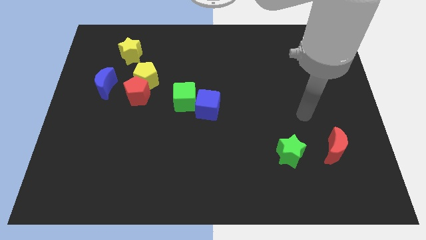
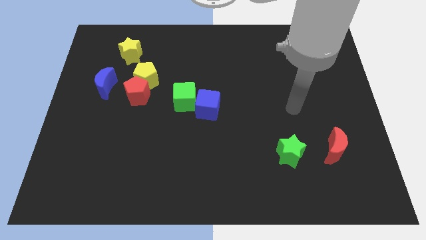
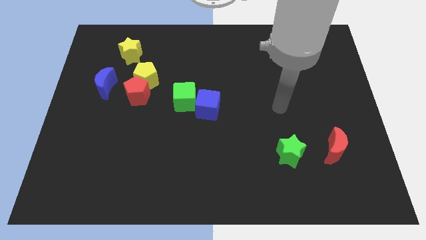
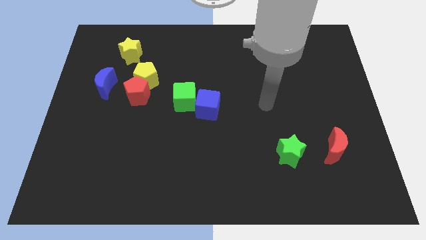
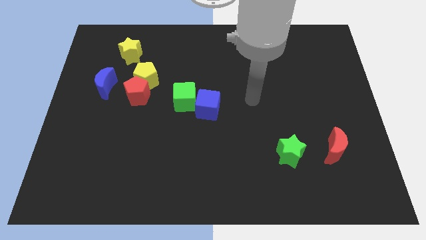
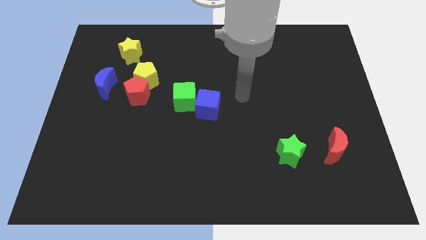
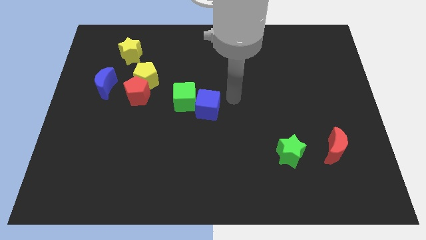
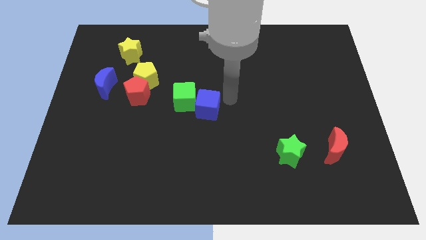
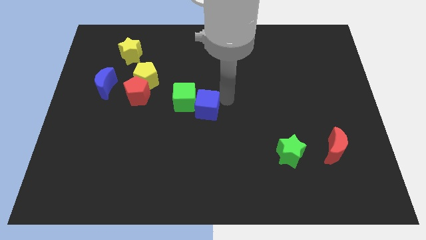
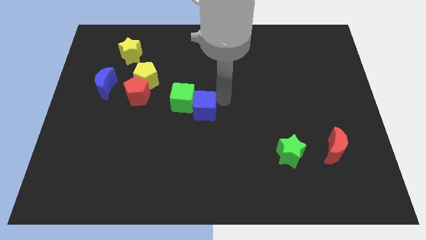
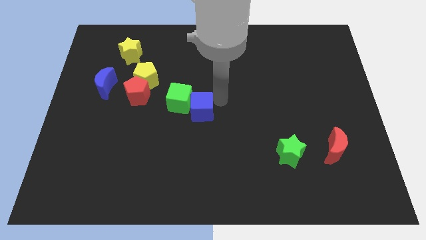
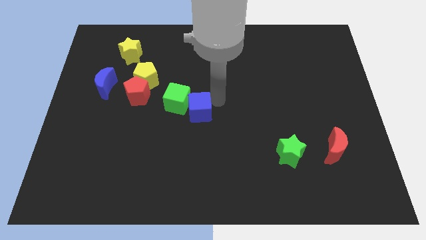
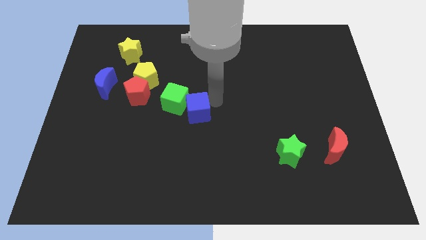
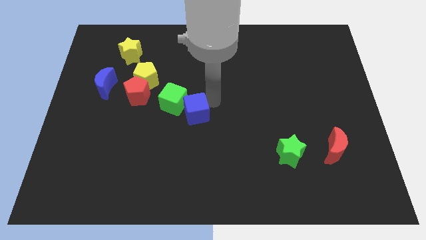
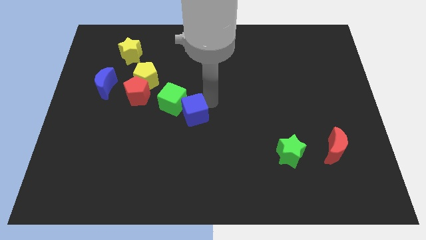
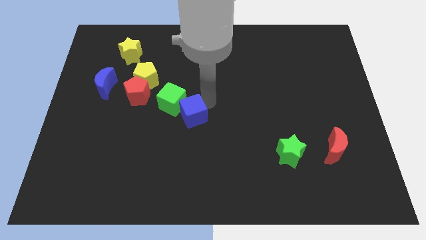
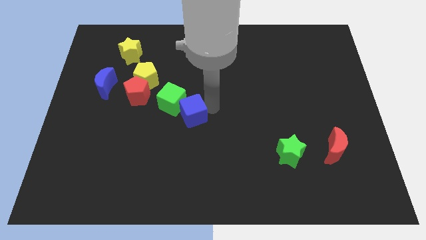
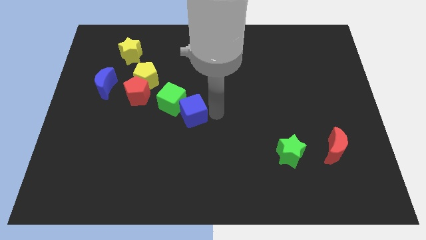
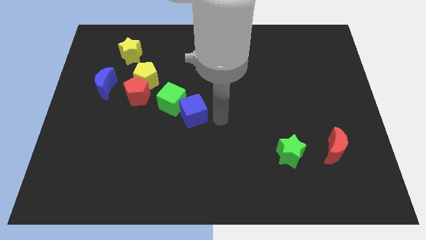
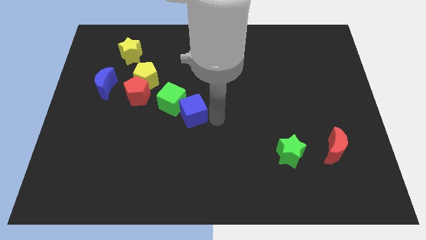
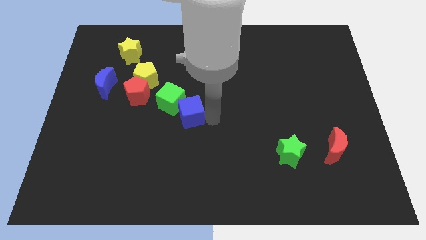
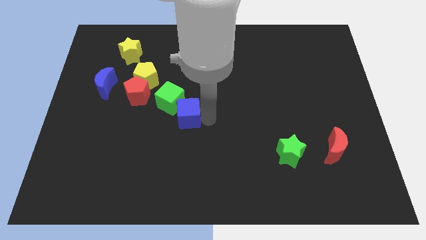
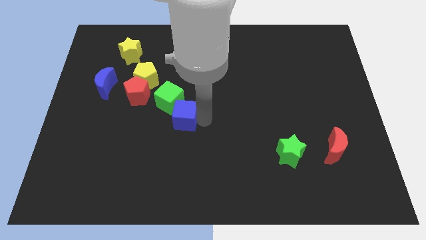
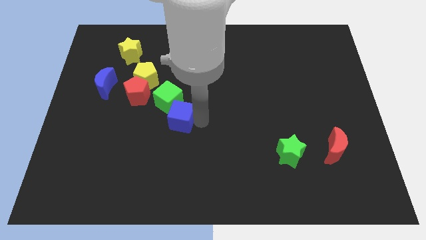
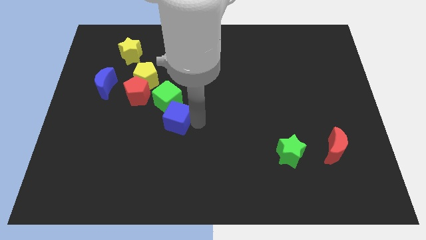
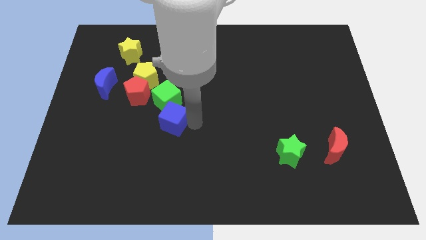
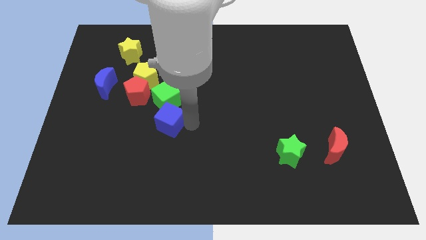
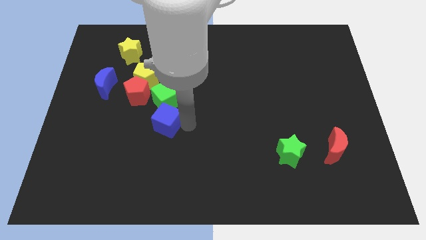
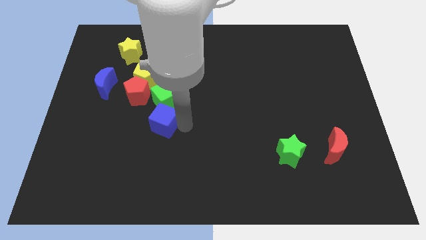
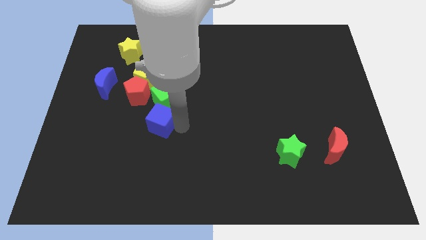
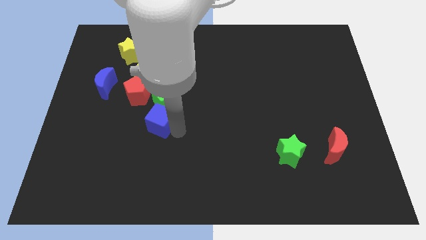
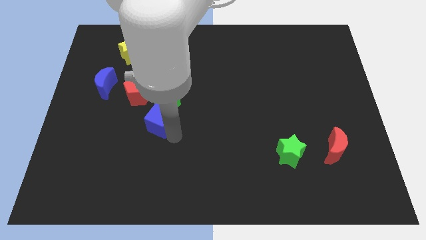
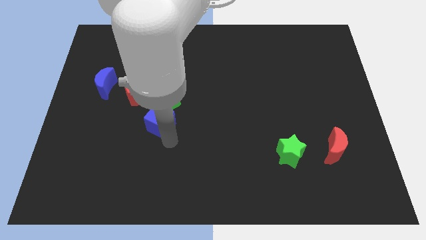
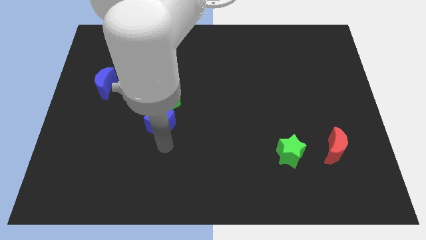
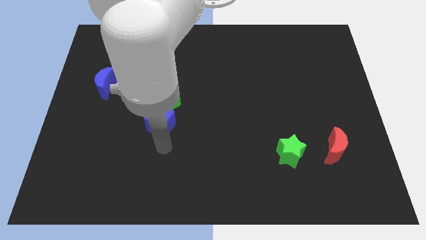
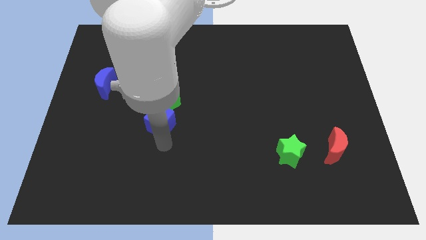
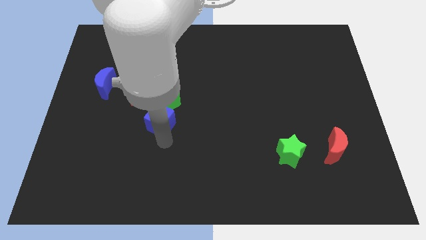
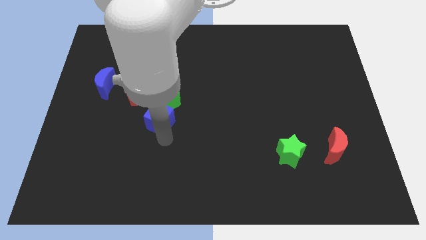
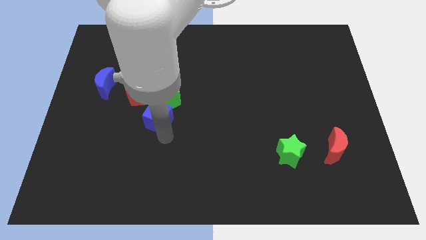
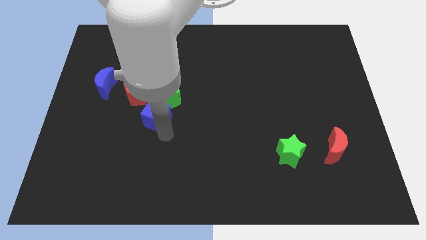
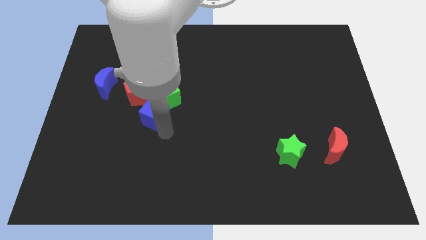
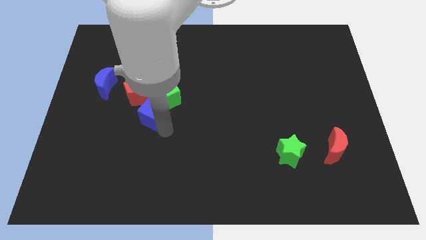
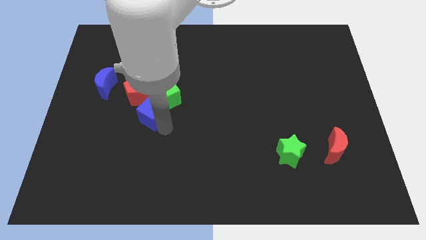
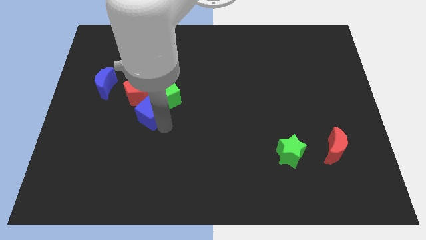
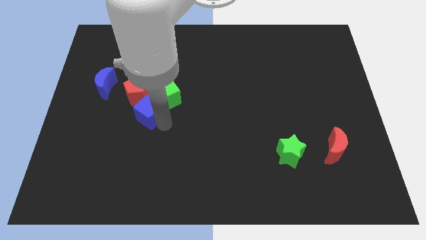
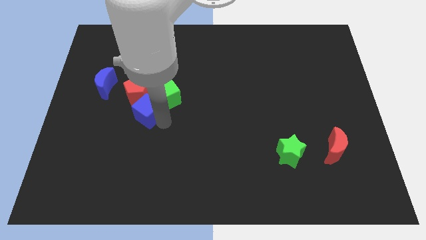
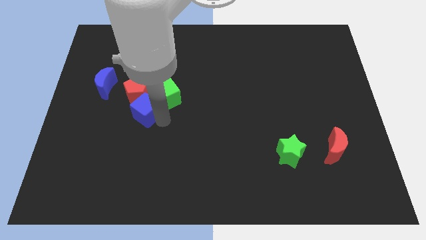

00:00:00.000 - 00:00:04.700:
put the blue cube close to the red pentagon

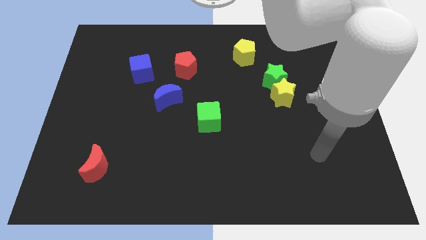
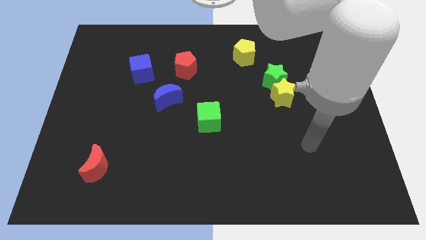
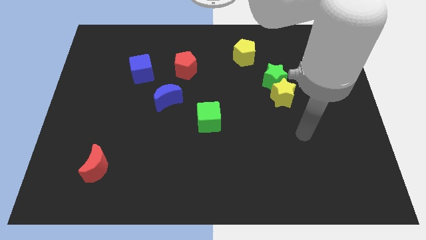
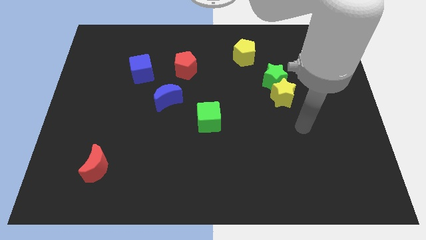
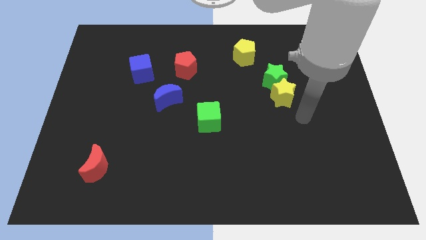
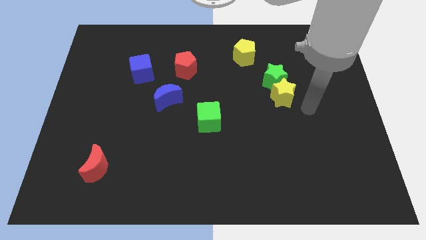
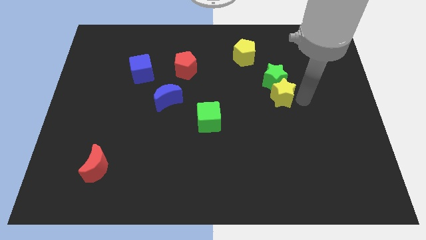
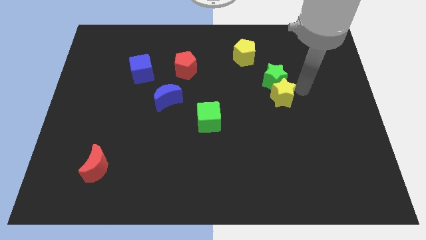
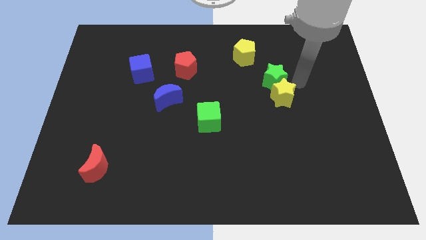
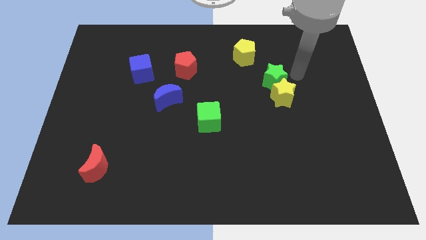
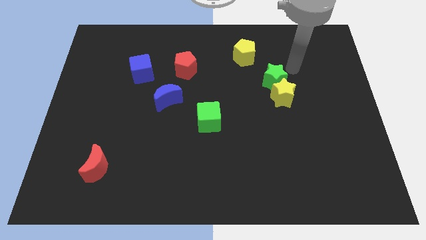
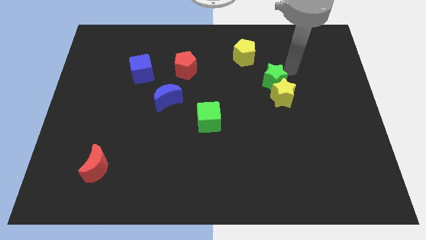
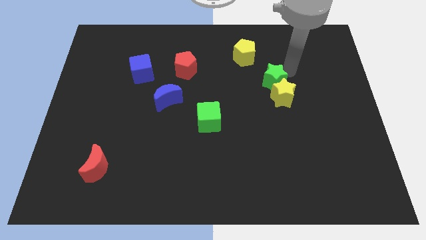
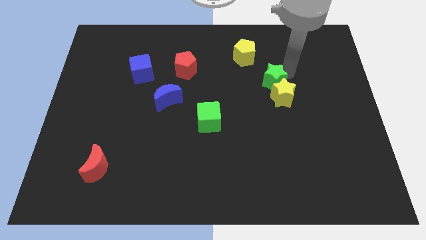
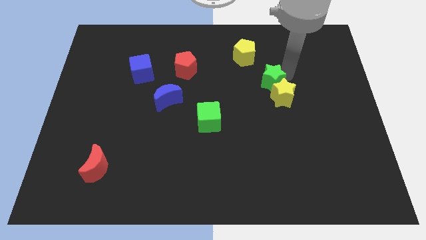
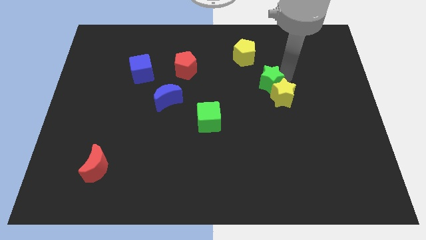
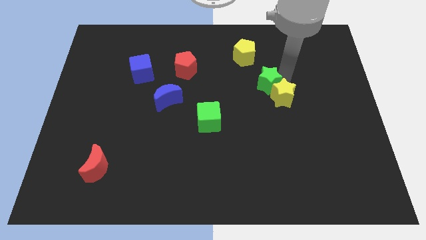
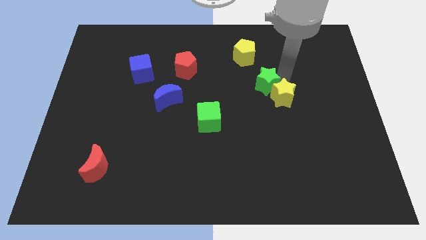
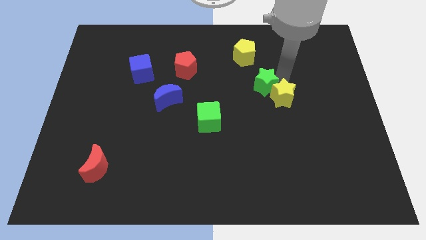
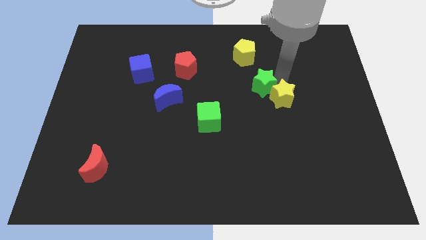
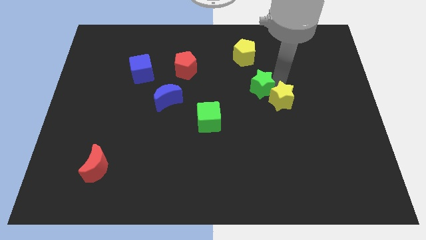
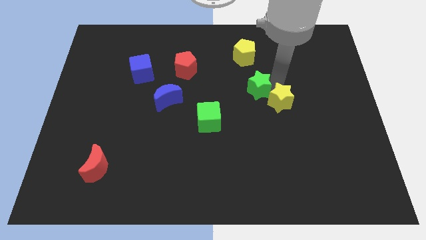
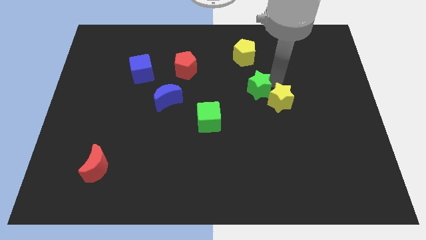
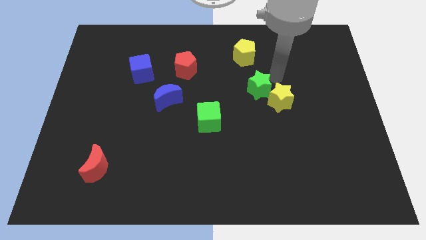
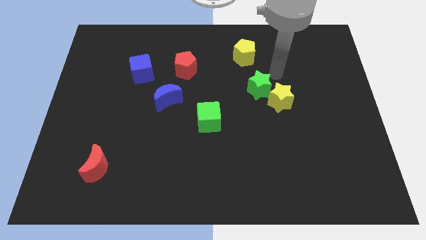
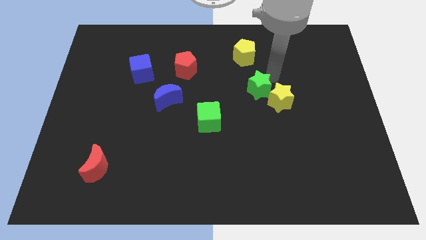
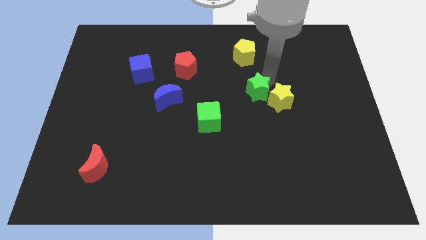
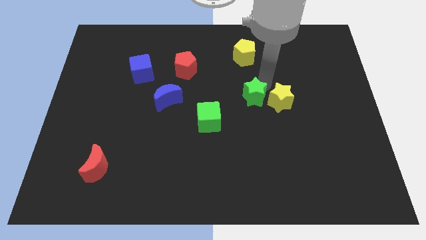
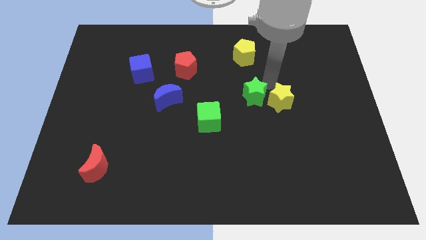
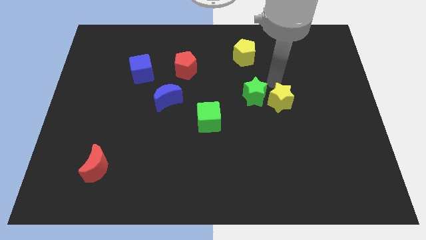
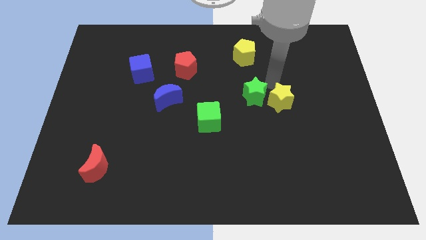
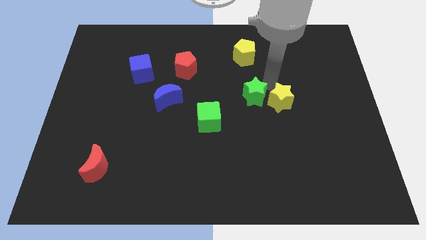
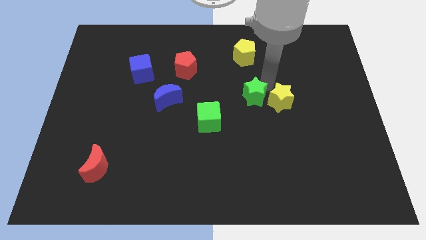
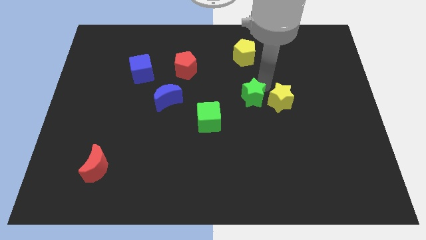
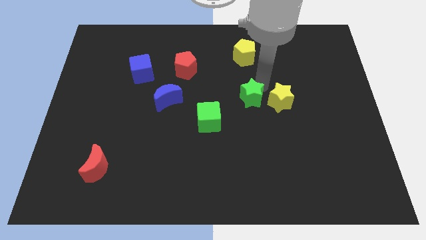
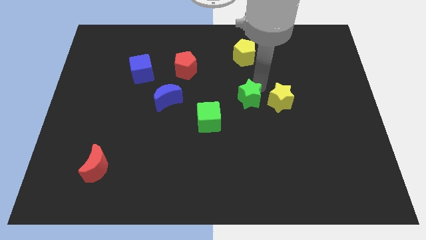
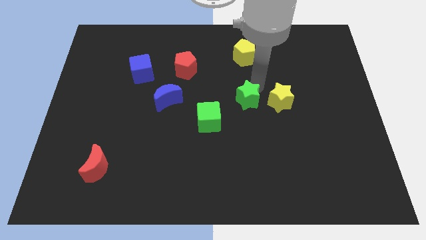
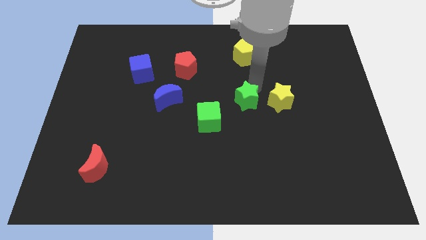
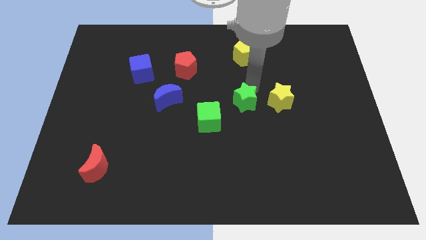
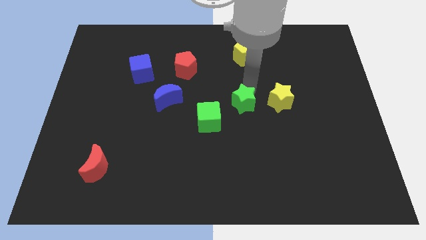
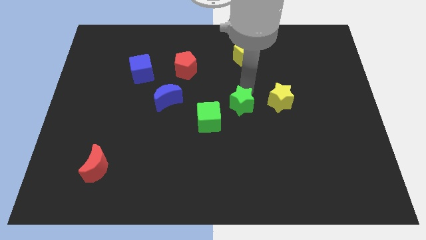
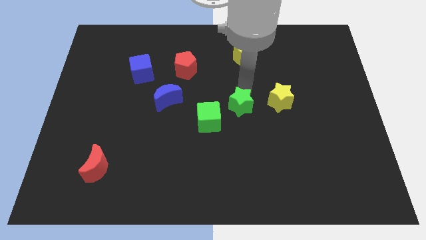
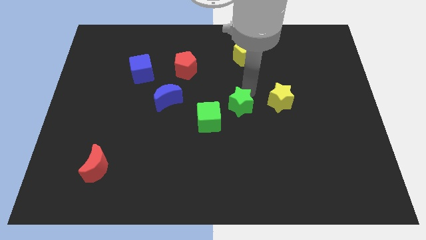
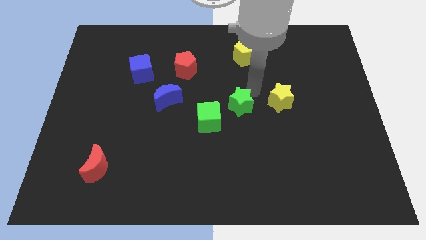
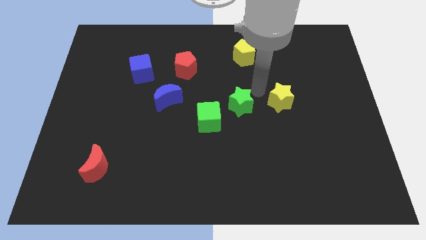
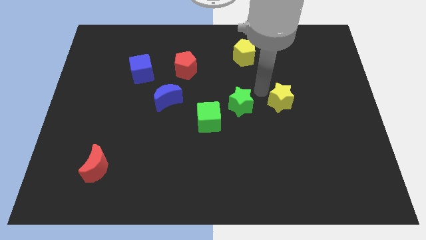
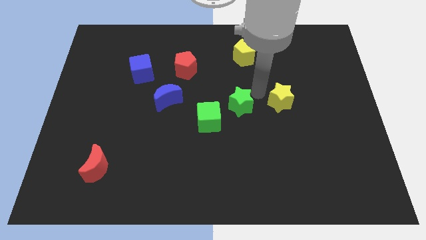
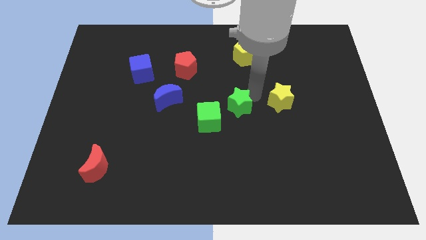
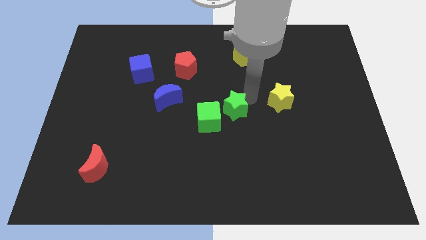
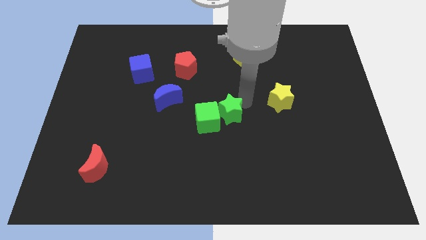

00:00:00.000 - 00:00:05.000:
push the green star close to the green cube
